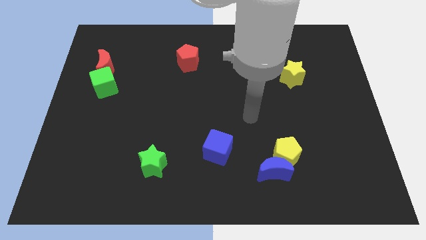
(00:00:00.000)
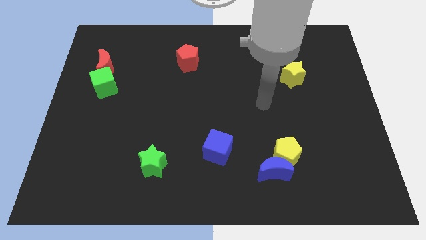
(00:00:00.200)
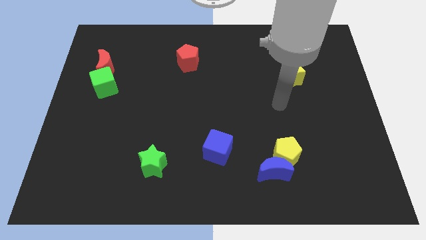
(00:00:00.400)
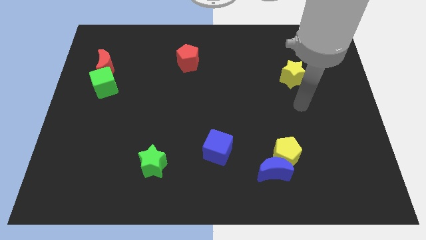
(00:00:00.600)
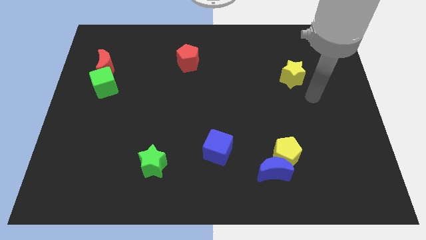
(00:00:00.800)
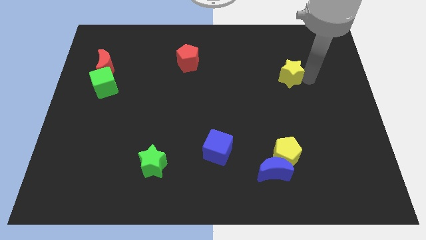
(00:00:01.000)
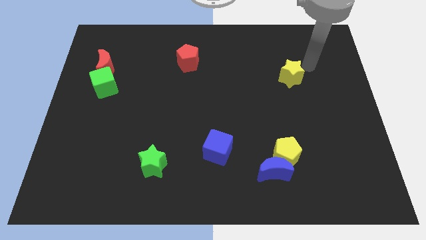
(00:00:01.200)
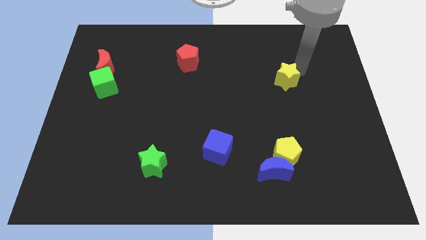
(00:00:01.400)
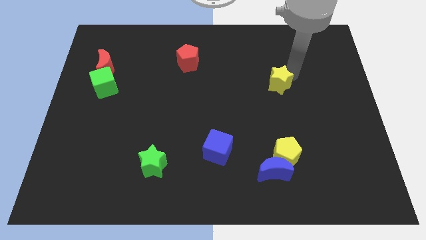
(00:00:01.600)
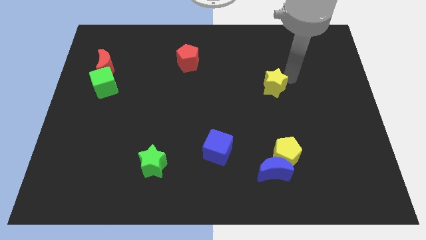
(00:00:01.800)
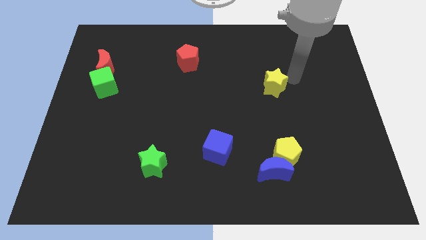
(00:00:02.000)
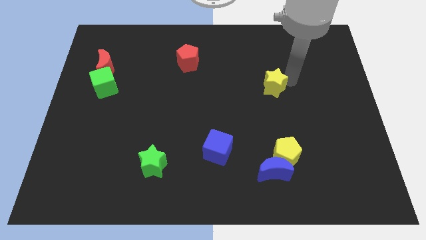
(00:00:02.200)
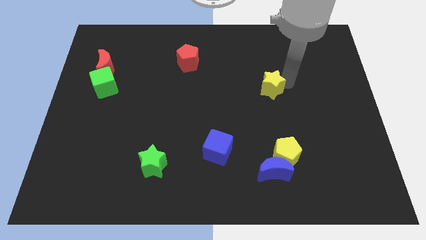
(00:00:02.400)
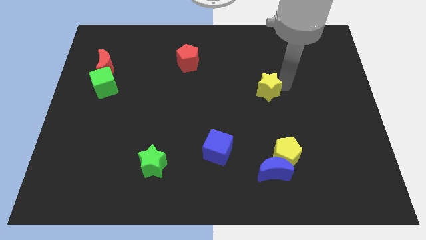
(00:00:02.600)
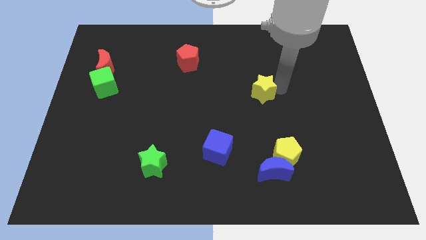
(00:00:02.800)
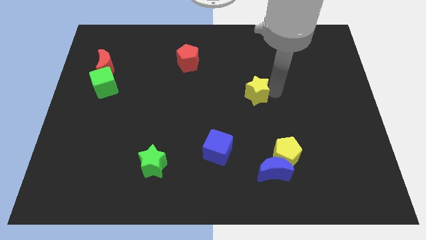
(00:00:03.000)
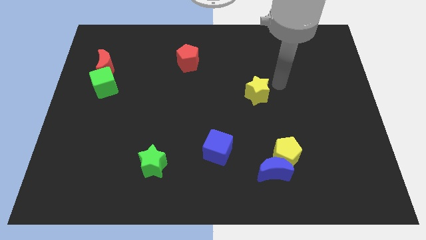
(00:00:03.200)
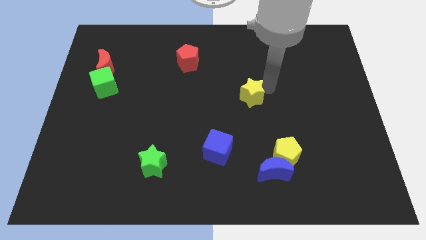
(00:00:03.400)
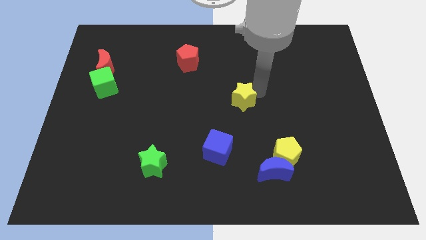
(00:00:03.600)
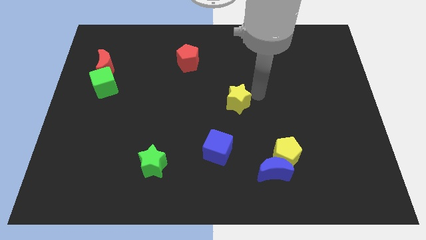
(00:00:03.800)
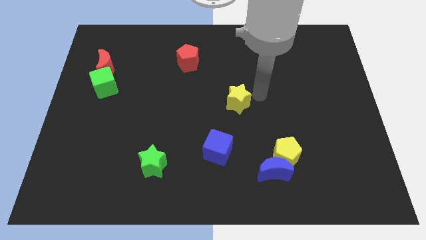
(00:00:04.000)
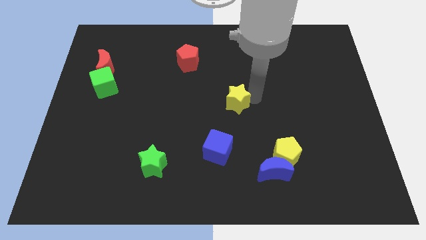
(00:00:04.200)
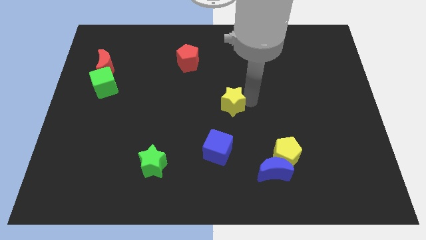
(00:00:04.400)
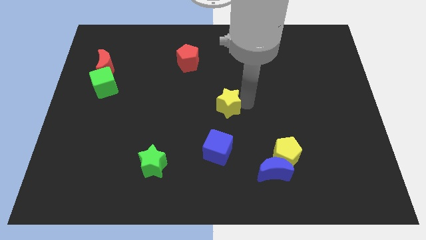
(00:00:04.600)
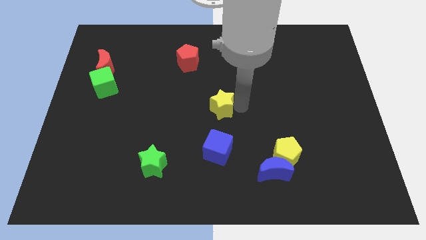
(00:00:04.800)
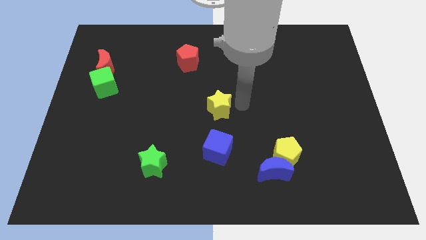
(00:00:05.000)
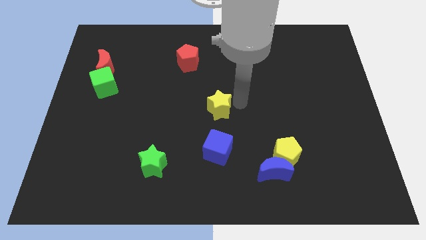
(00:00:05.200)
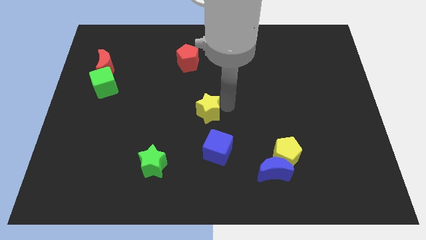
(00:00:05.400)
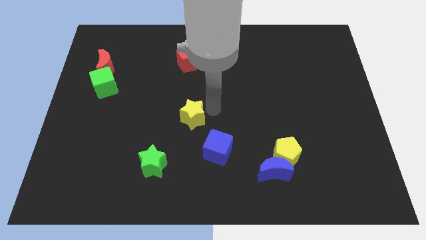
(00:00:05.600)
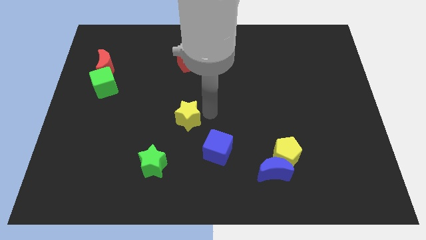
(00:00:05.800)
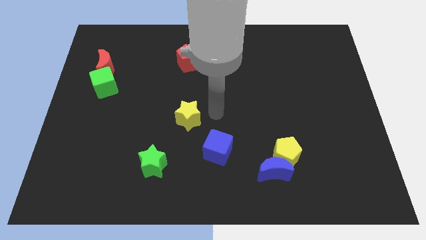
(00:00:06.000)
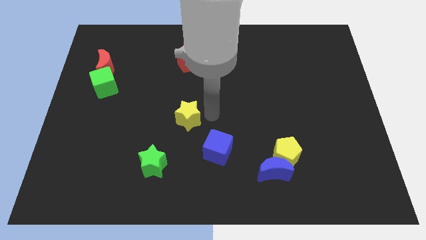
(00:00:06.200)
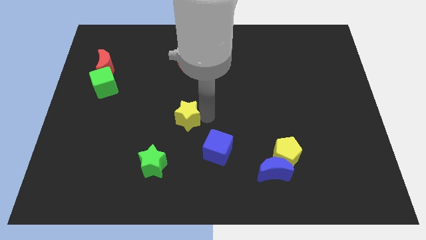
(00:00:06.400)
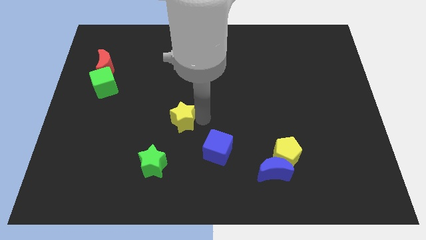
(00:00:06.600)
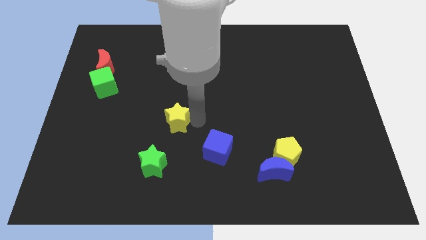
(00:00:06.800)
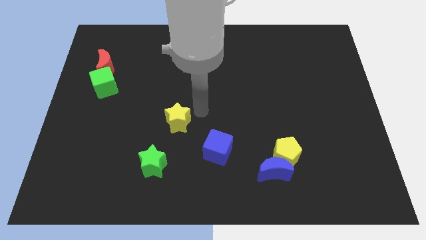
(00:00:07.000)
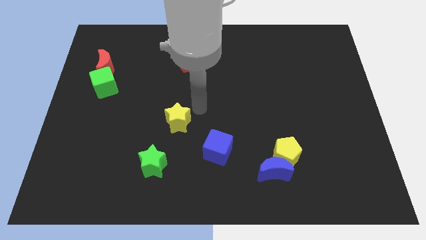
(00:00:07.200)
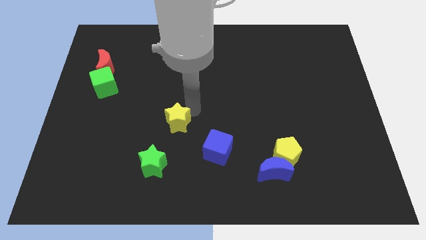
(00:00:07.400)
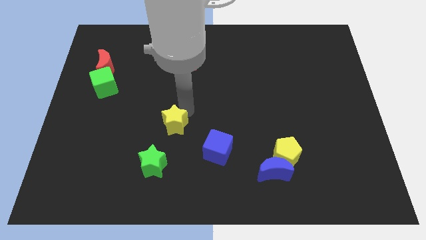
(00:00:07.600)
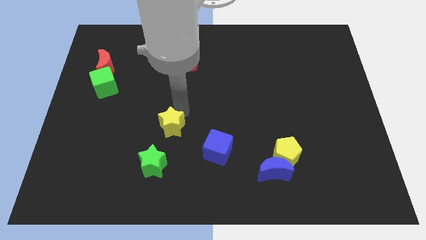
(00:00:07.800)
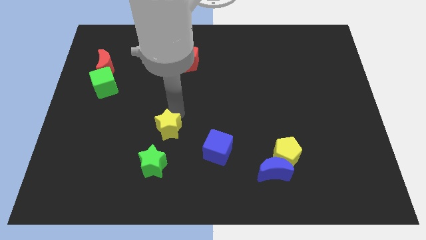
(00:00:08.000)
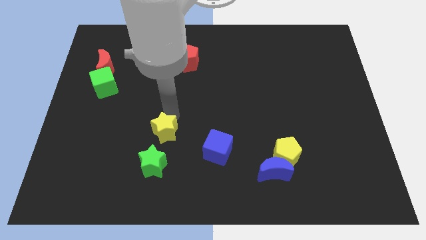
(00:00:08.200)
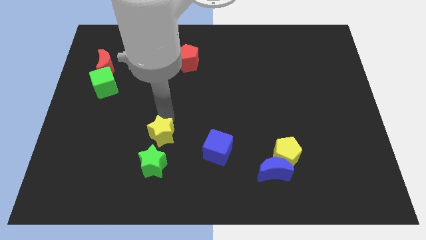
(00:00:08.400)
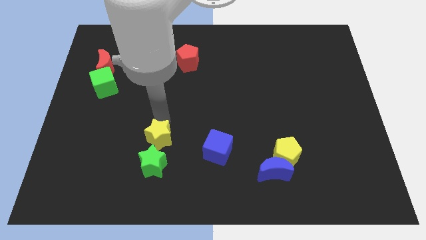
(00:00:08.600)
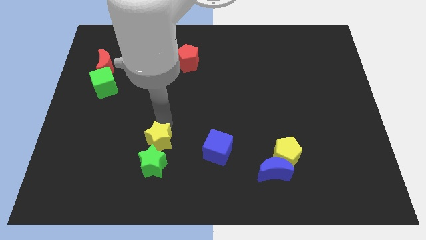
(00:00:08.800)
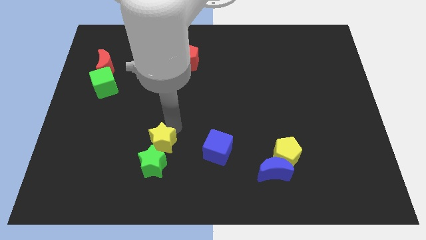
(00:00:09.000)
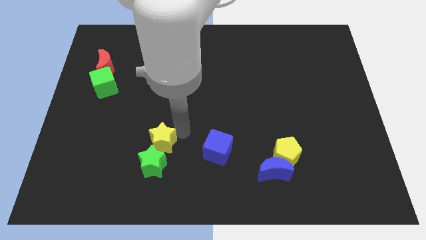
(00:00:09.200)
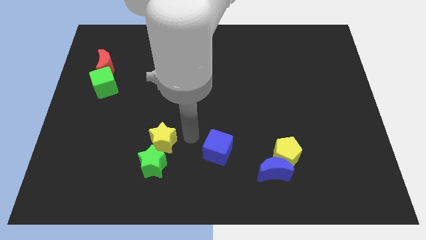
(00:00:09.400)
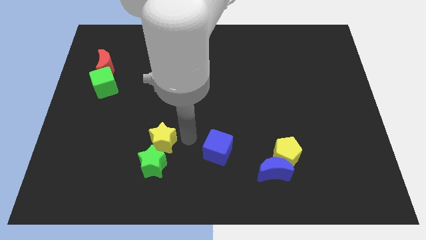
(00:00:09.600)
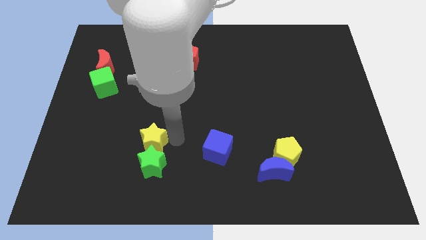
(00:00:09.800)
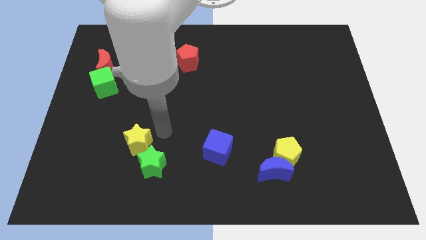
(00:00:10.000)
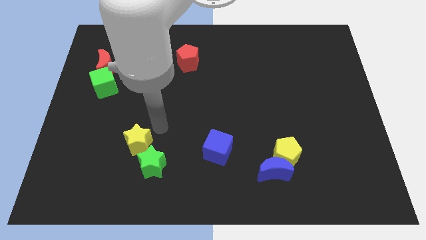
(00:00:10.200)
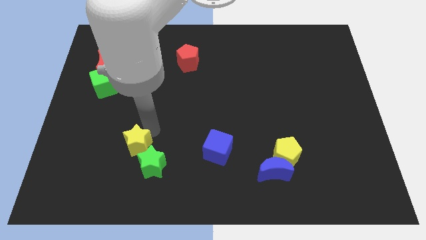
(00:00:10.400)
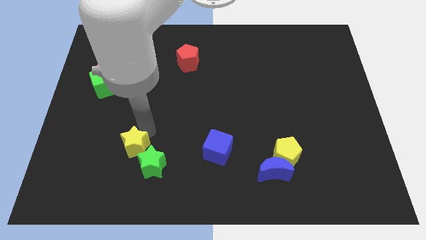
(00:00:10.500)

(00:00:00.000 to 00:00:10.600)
push the yellow star to the left of the green star

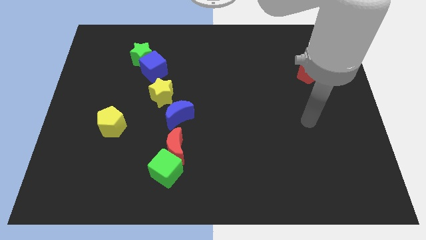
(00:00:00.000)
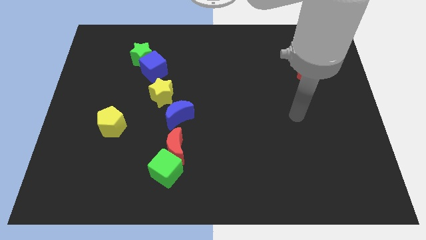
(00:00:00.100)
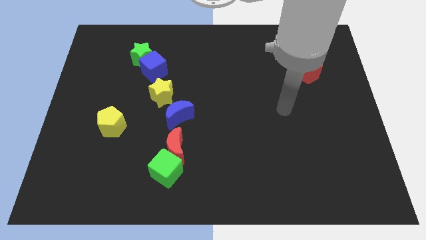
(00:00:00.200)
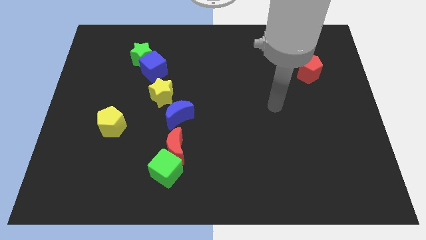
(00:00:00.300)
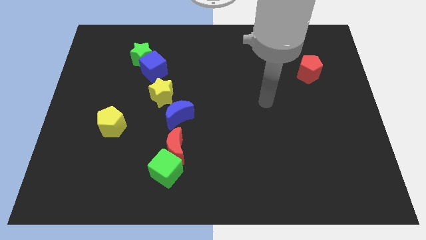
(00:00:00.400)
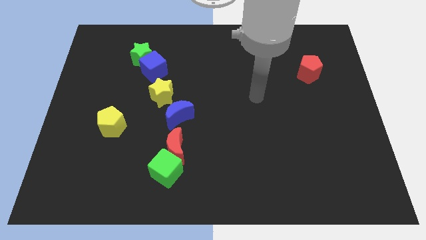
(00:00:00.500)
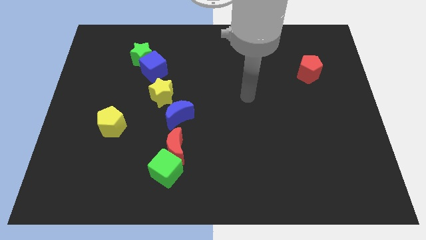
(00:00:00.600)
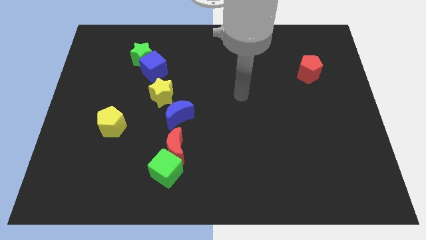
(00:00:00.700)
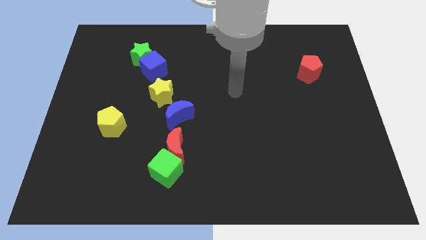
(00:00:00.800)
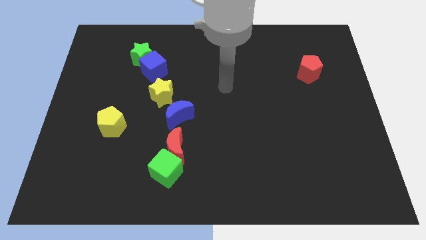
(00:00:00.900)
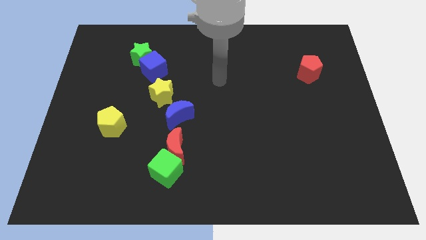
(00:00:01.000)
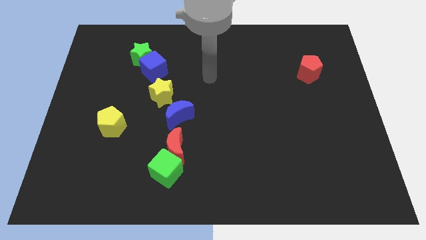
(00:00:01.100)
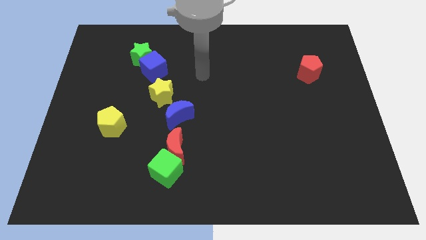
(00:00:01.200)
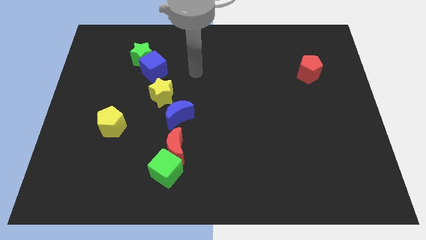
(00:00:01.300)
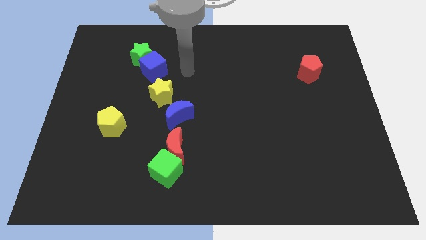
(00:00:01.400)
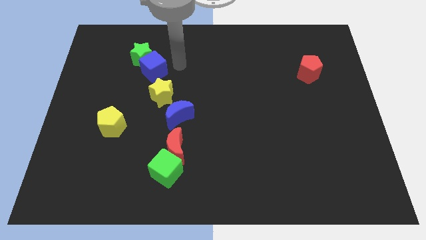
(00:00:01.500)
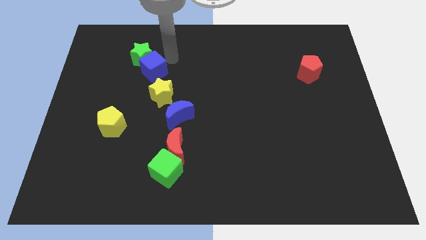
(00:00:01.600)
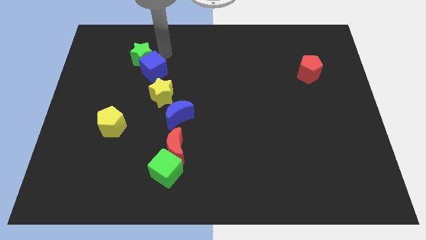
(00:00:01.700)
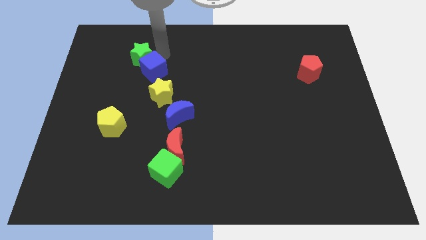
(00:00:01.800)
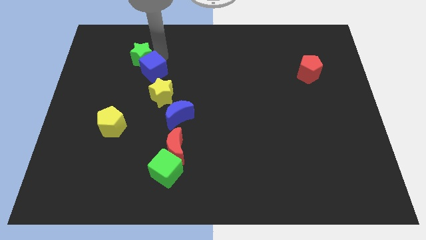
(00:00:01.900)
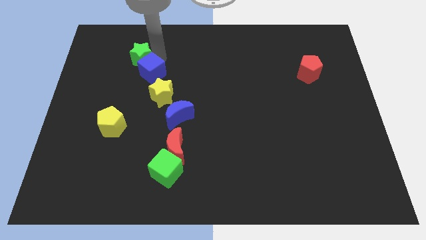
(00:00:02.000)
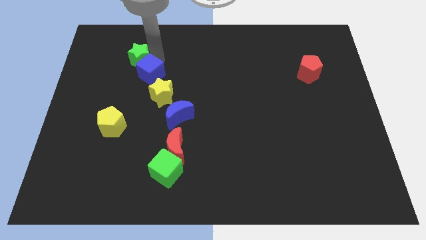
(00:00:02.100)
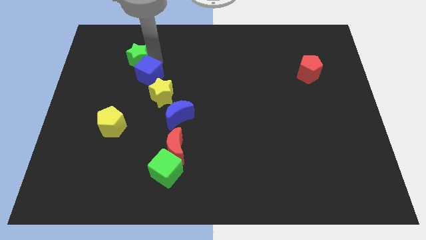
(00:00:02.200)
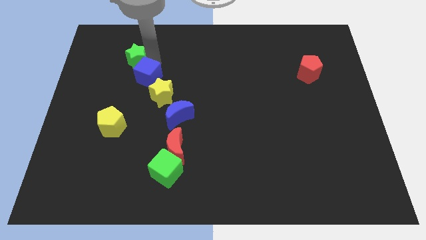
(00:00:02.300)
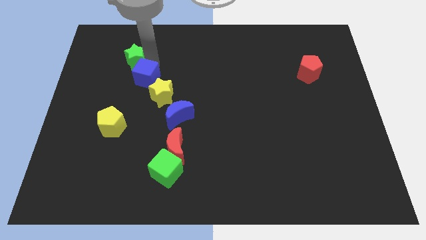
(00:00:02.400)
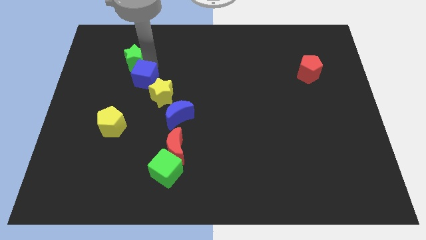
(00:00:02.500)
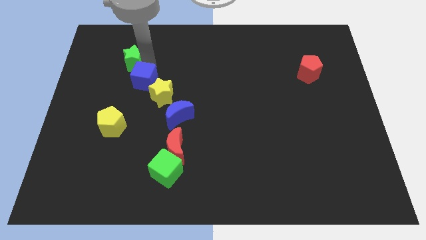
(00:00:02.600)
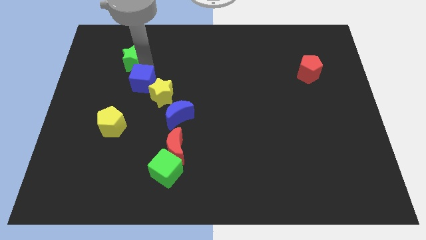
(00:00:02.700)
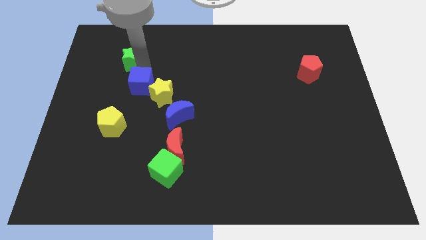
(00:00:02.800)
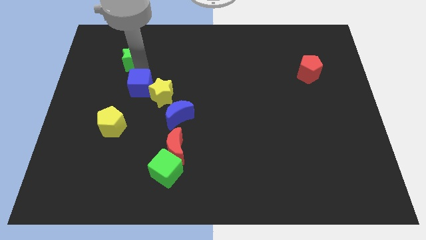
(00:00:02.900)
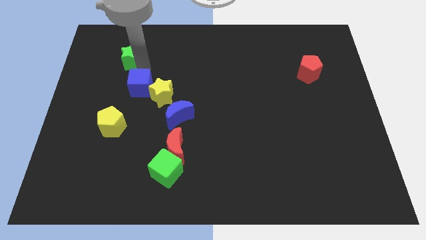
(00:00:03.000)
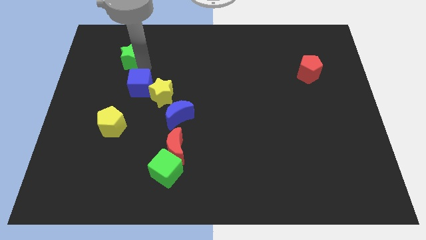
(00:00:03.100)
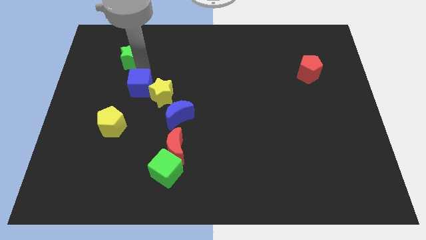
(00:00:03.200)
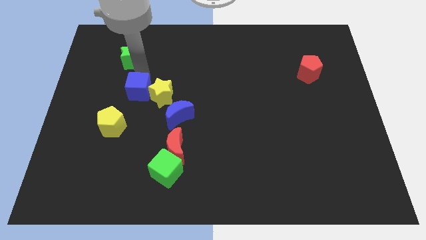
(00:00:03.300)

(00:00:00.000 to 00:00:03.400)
push the blue cube to the top right side of the yellow pentagon
